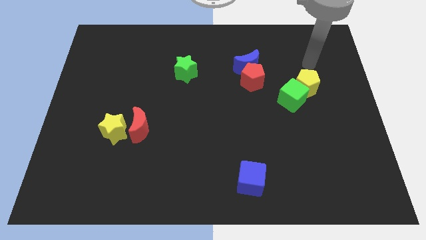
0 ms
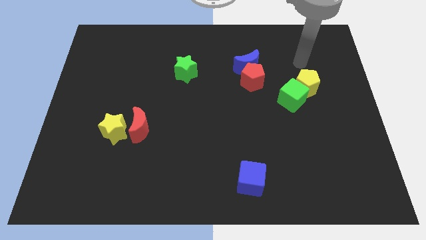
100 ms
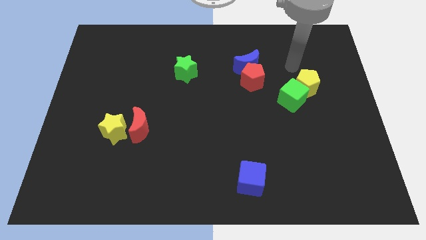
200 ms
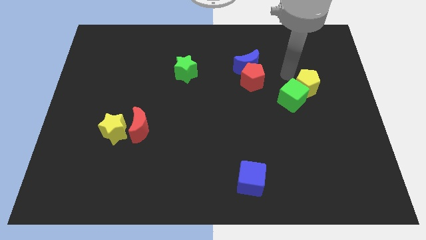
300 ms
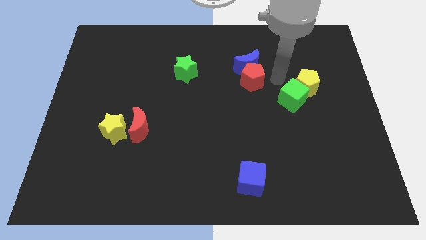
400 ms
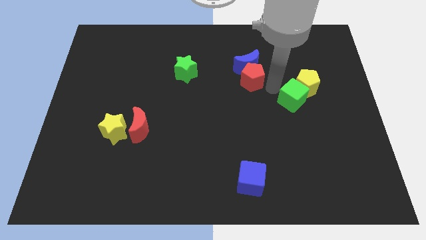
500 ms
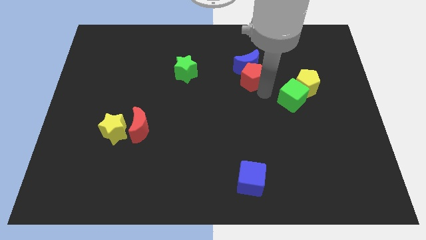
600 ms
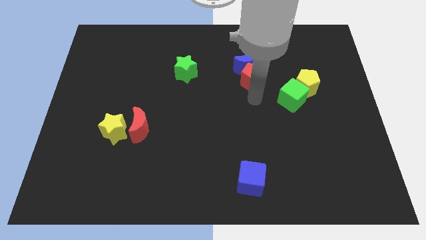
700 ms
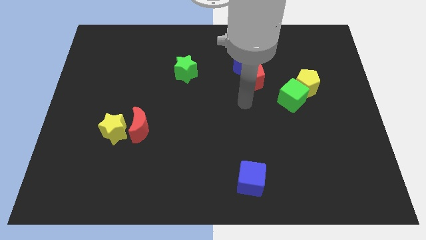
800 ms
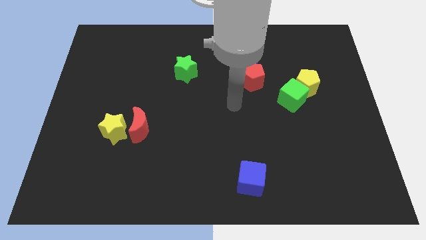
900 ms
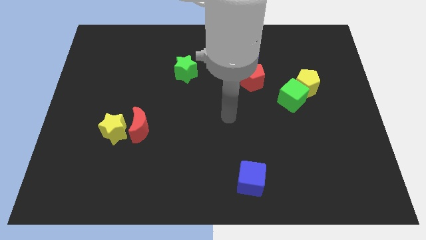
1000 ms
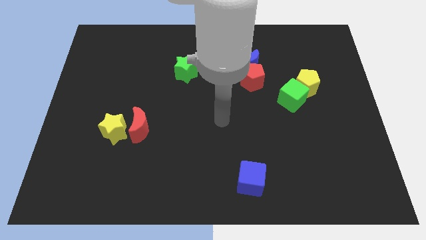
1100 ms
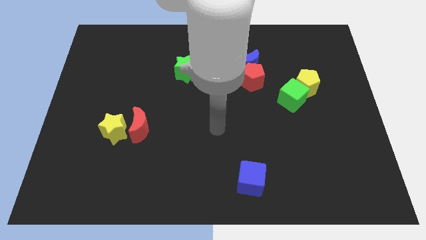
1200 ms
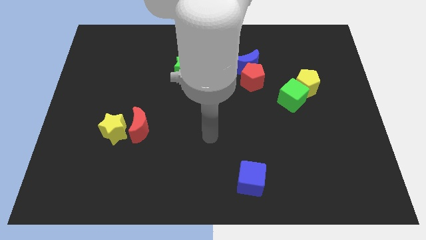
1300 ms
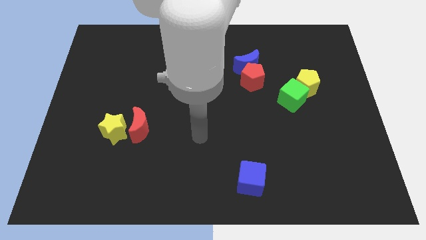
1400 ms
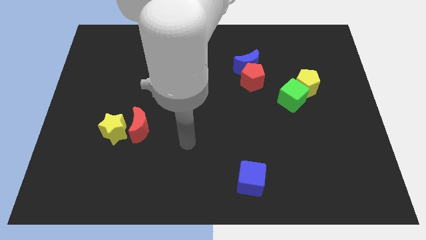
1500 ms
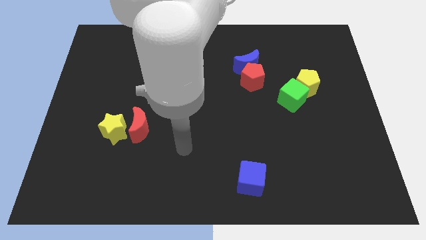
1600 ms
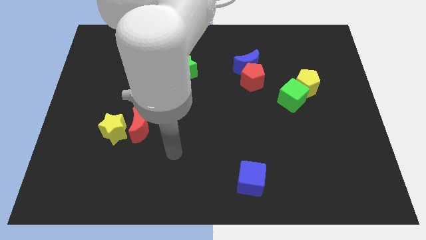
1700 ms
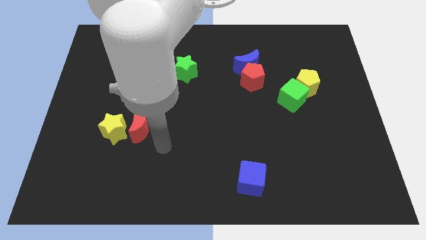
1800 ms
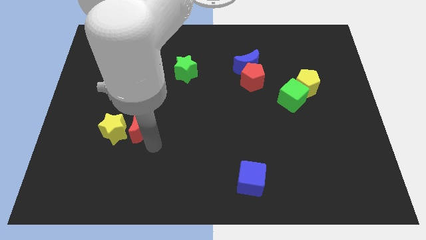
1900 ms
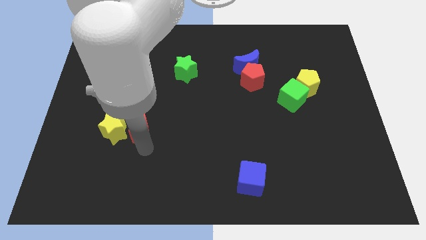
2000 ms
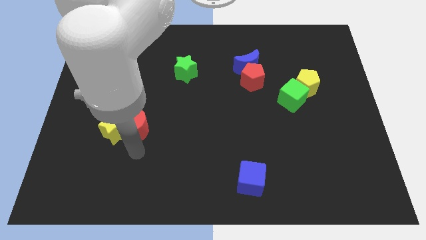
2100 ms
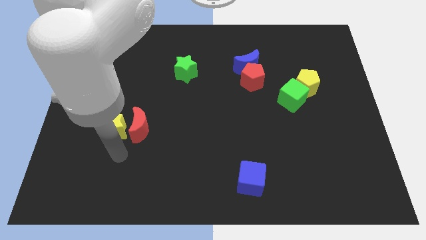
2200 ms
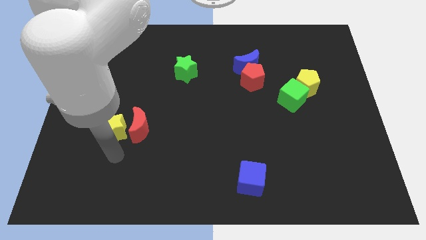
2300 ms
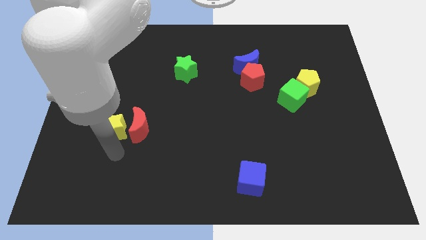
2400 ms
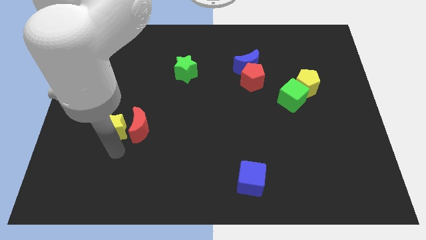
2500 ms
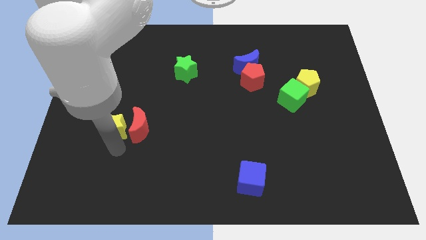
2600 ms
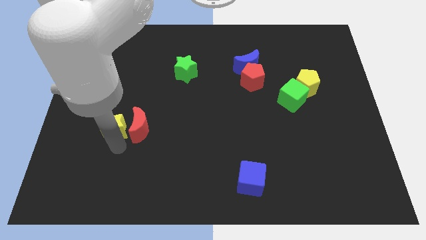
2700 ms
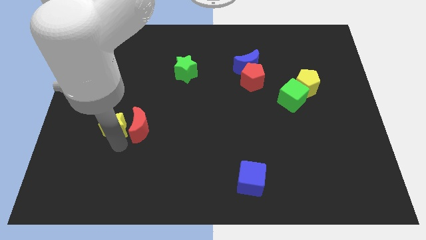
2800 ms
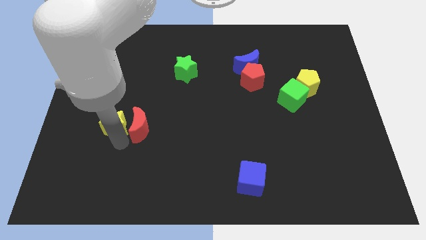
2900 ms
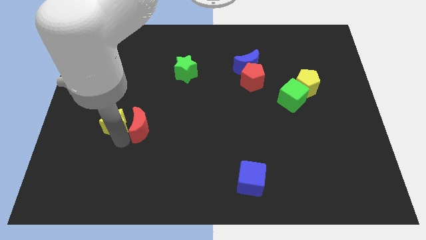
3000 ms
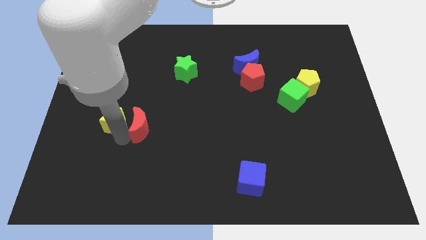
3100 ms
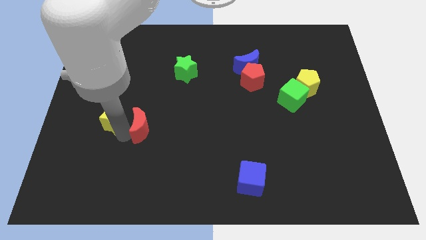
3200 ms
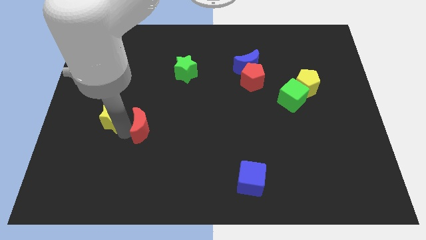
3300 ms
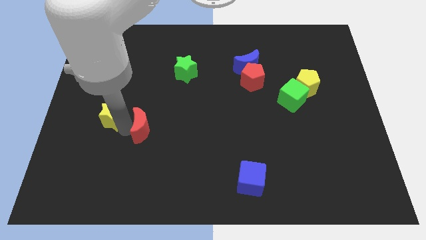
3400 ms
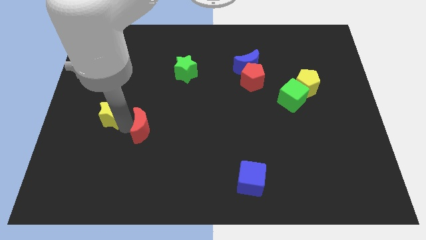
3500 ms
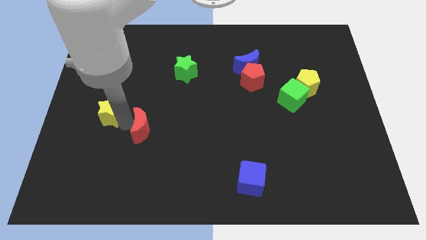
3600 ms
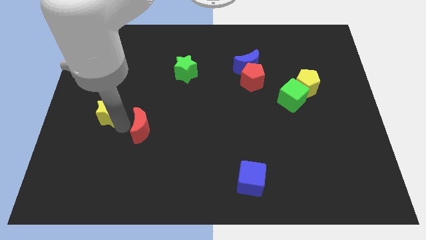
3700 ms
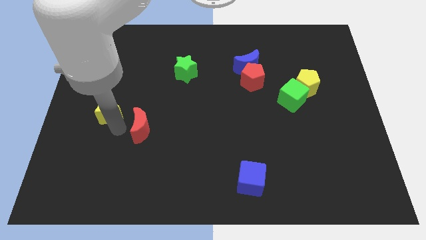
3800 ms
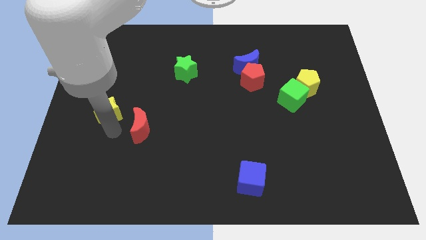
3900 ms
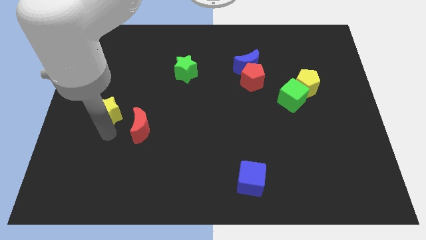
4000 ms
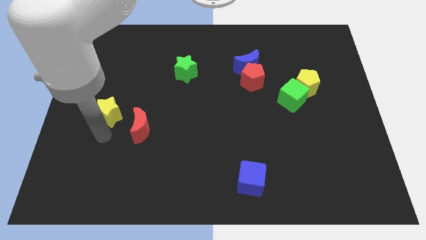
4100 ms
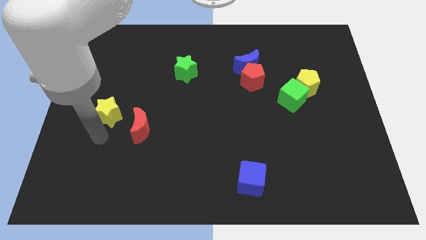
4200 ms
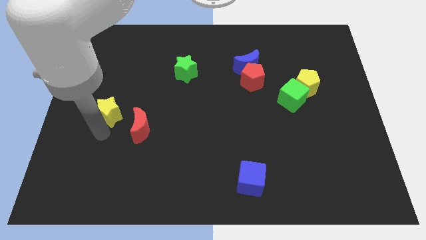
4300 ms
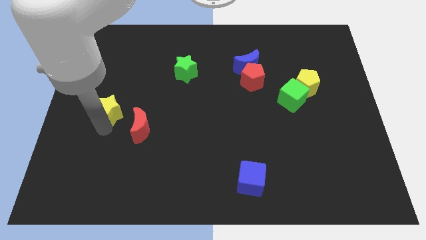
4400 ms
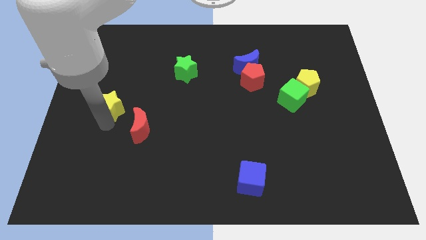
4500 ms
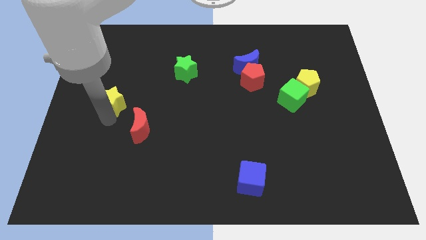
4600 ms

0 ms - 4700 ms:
push the yellow star upwards a little bit

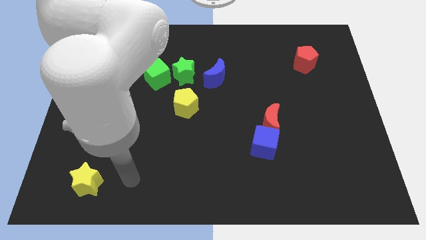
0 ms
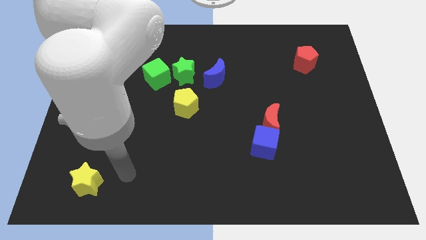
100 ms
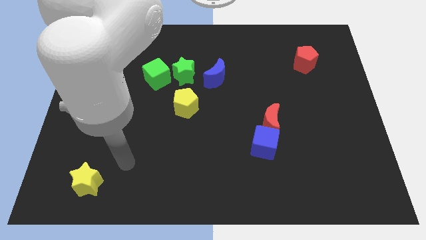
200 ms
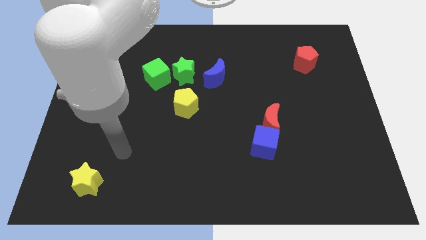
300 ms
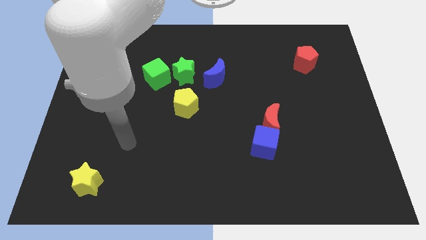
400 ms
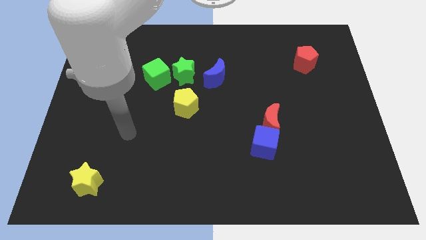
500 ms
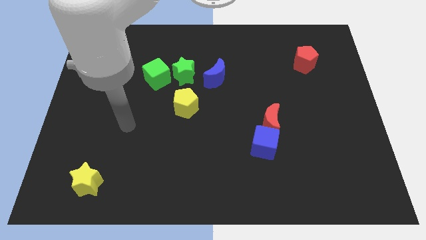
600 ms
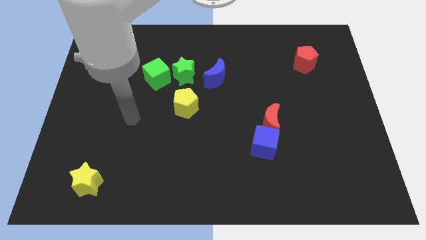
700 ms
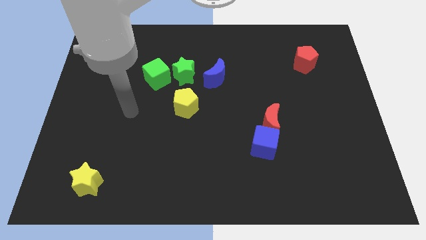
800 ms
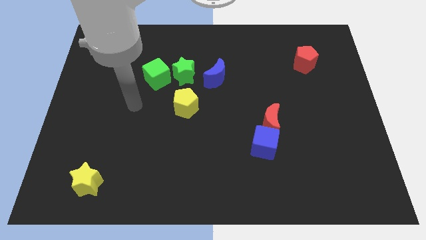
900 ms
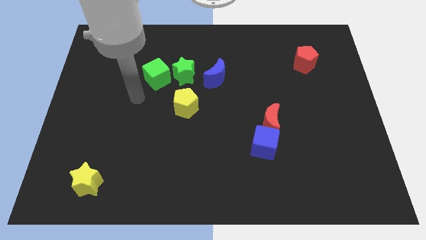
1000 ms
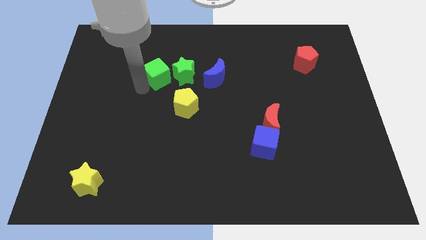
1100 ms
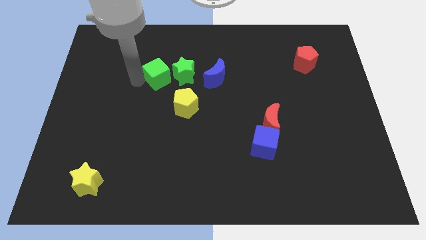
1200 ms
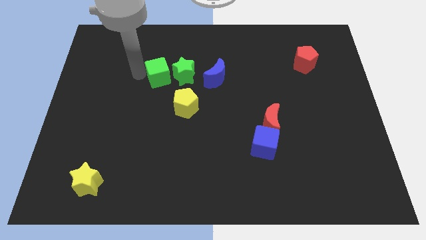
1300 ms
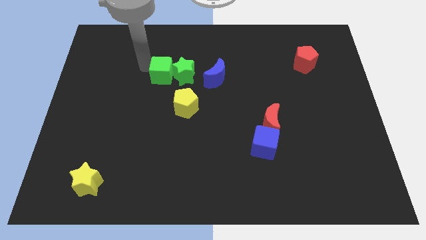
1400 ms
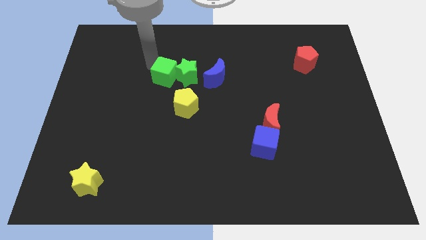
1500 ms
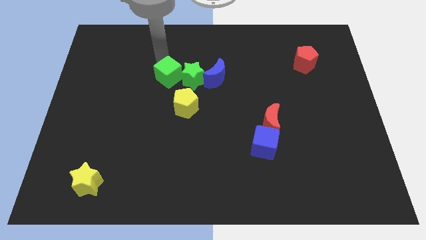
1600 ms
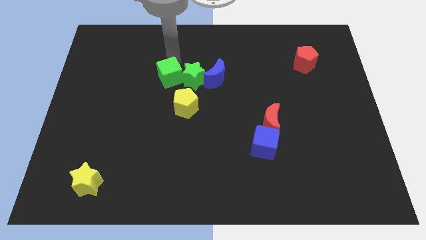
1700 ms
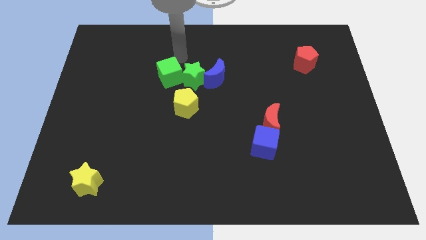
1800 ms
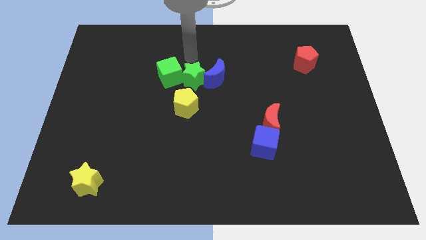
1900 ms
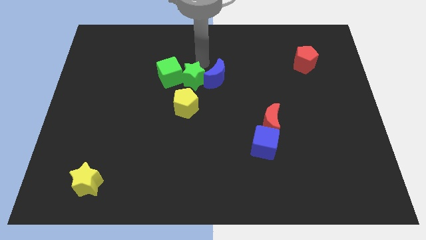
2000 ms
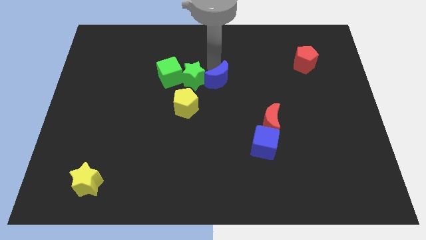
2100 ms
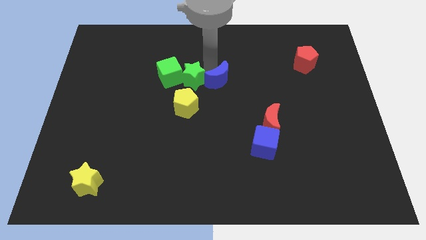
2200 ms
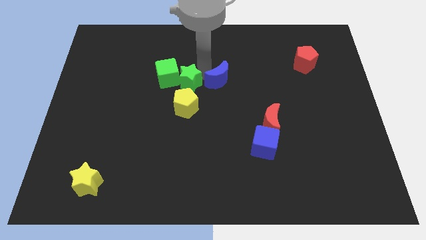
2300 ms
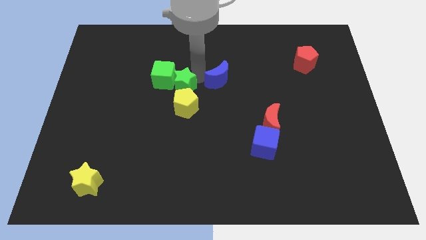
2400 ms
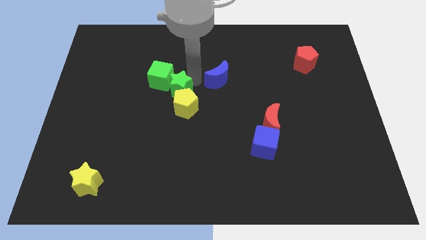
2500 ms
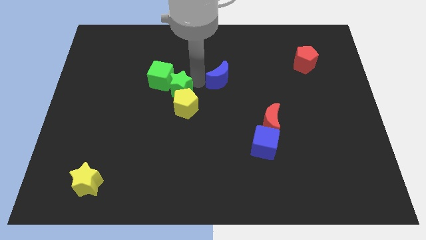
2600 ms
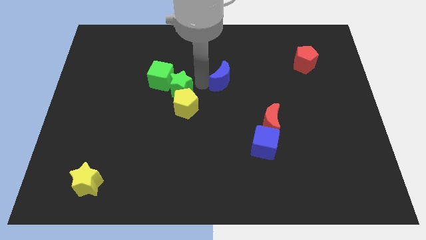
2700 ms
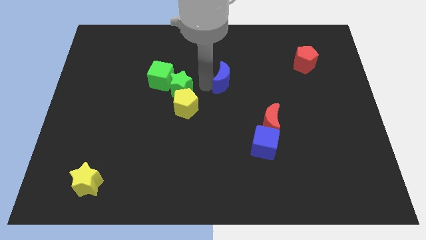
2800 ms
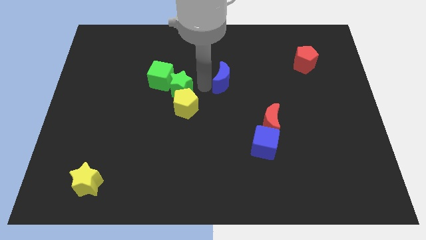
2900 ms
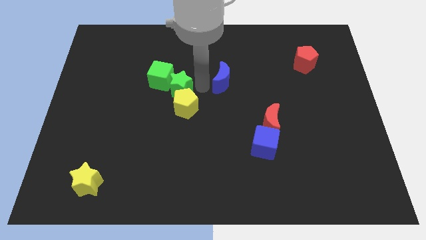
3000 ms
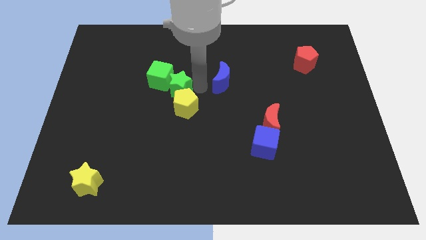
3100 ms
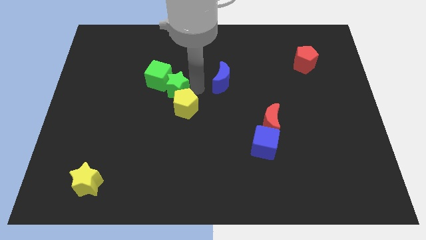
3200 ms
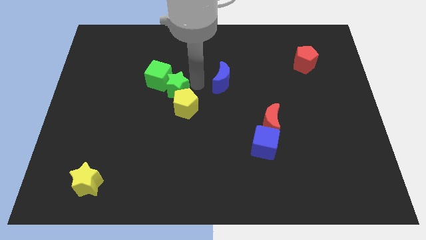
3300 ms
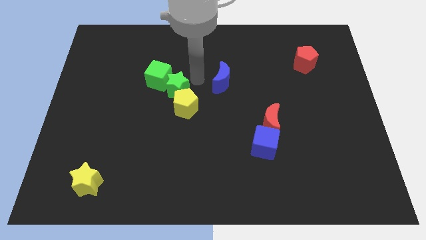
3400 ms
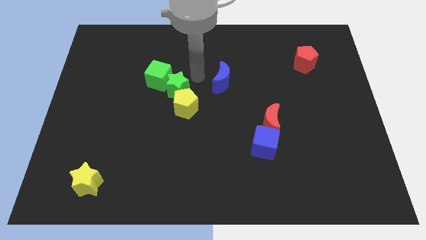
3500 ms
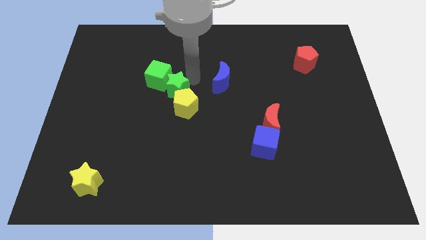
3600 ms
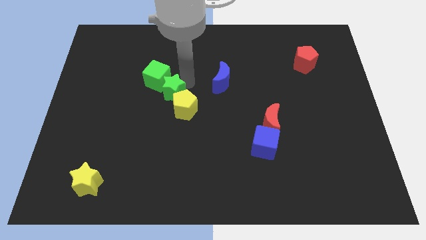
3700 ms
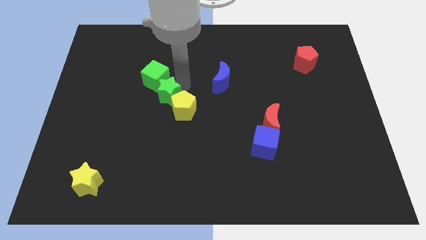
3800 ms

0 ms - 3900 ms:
slightly move the green star downwards and left

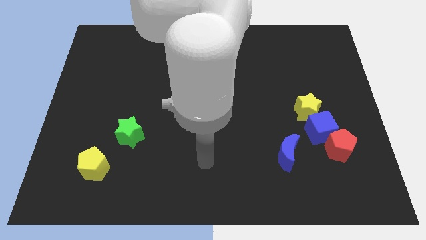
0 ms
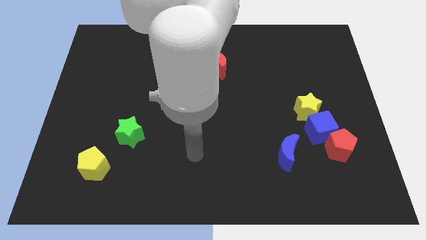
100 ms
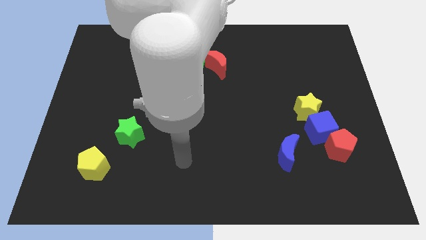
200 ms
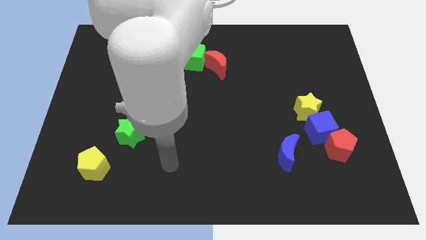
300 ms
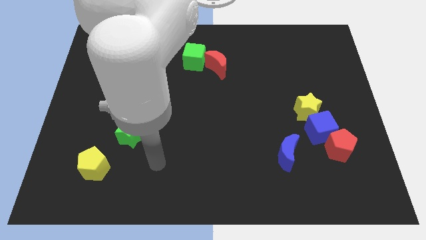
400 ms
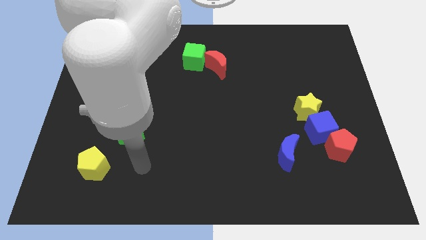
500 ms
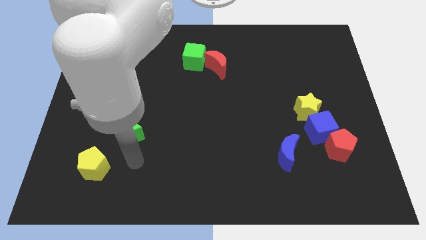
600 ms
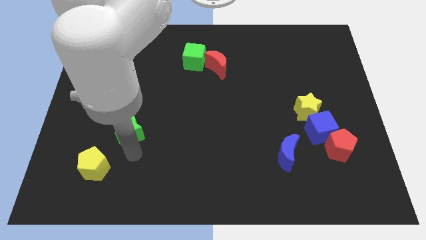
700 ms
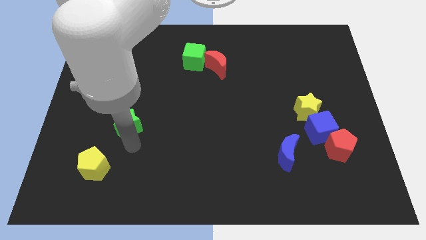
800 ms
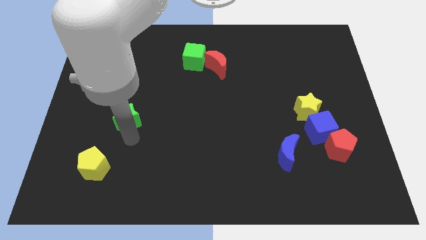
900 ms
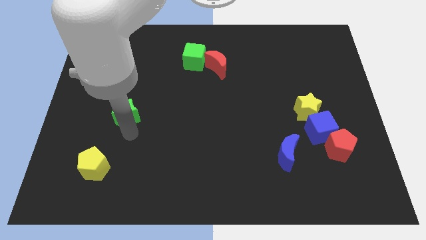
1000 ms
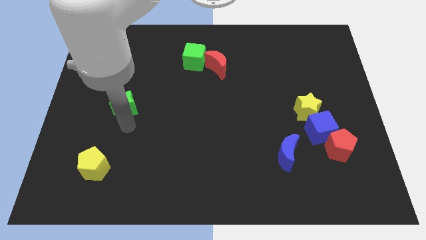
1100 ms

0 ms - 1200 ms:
slide the green star upwards a little
